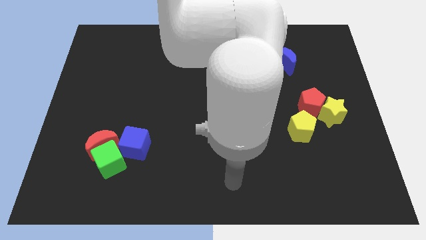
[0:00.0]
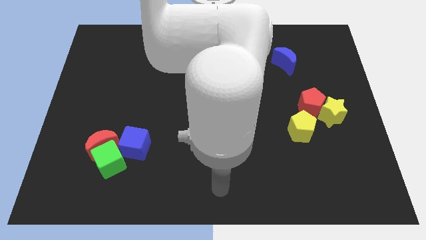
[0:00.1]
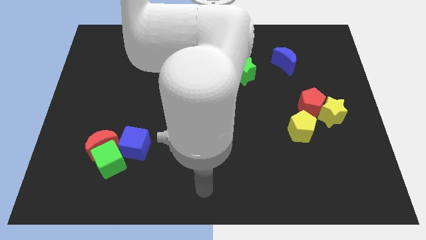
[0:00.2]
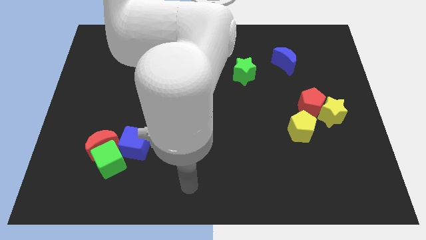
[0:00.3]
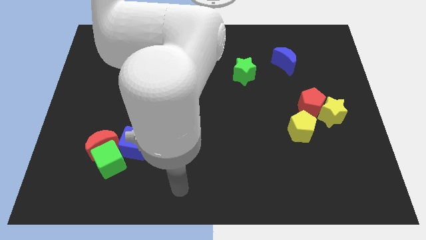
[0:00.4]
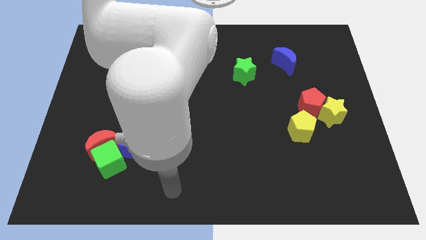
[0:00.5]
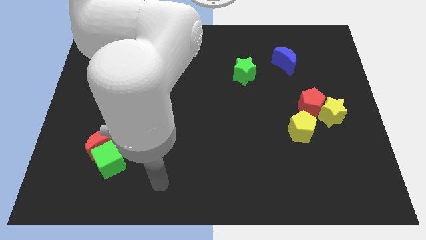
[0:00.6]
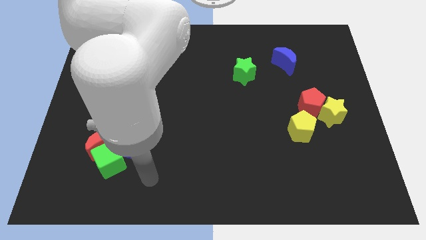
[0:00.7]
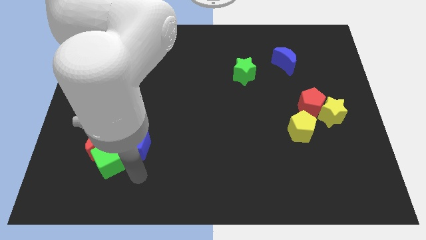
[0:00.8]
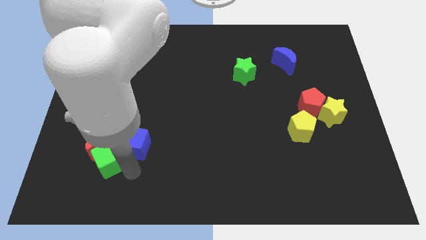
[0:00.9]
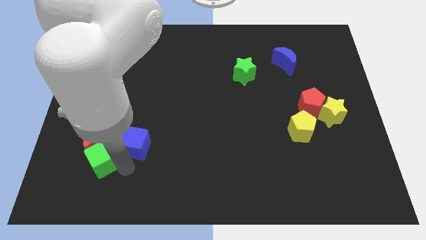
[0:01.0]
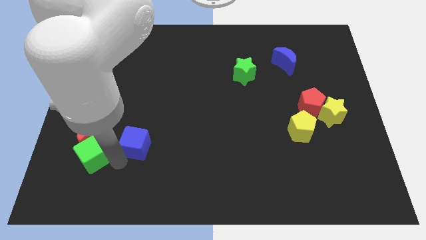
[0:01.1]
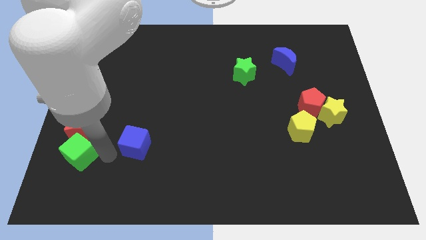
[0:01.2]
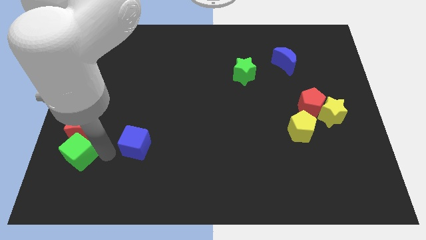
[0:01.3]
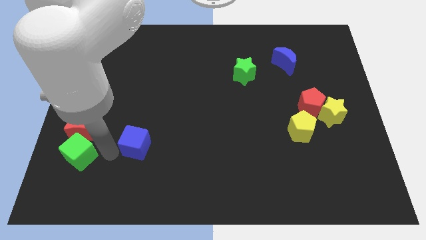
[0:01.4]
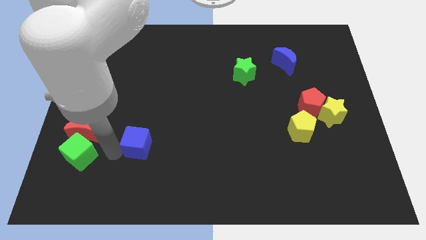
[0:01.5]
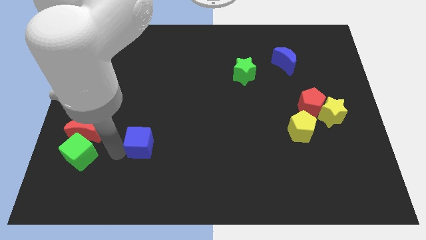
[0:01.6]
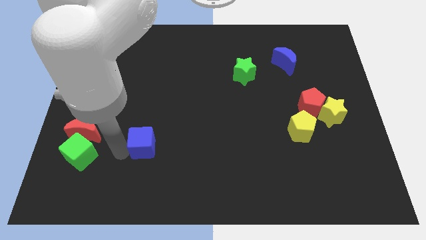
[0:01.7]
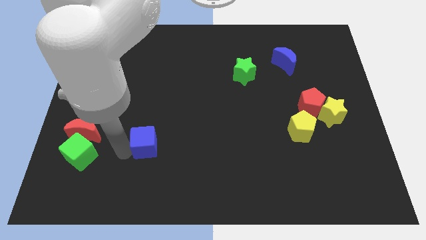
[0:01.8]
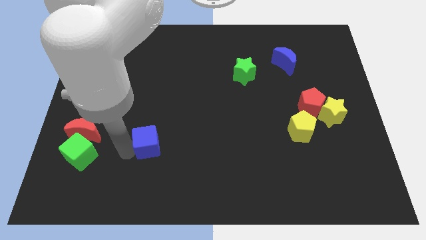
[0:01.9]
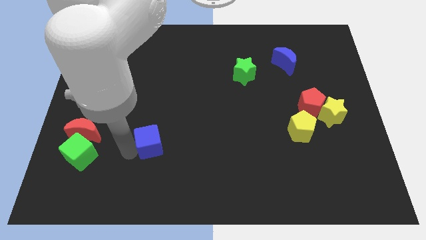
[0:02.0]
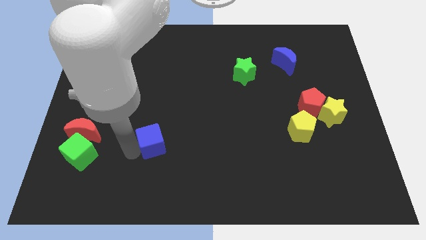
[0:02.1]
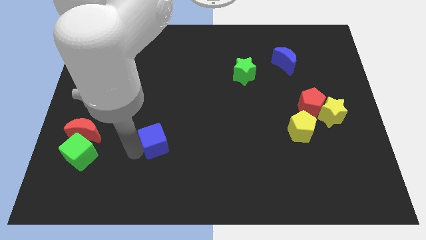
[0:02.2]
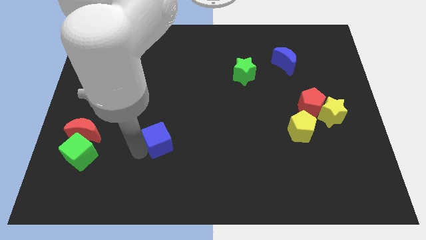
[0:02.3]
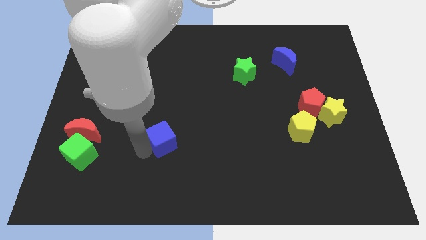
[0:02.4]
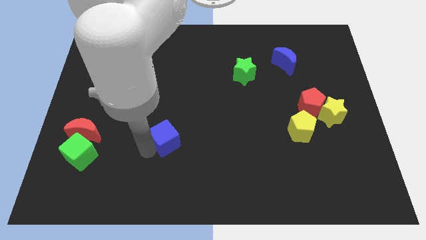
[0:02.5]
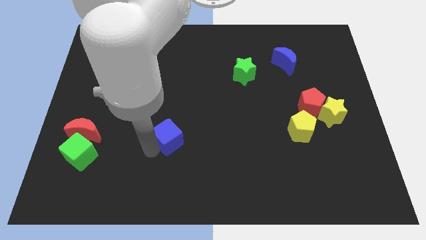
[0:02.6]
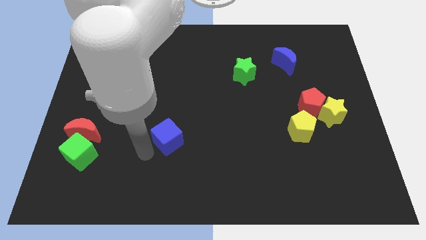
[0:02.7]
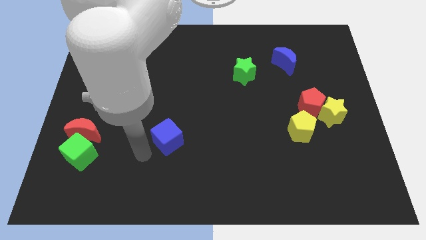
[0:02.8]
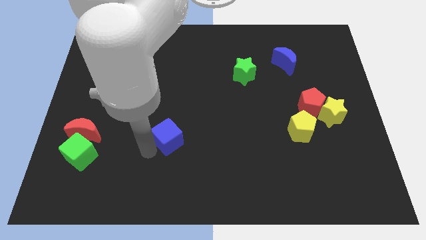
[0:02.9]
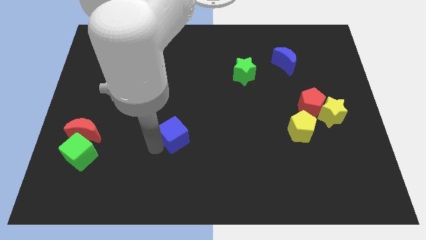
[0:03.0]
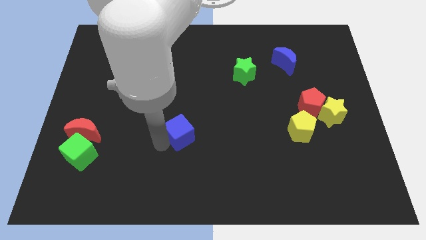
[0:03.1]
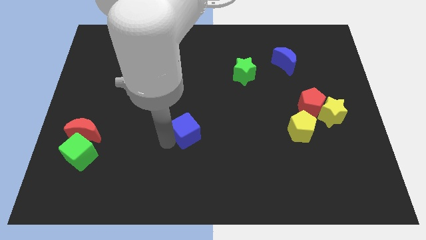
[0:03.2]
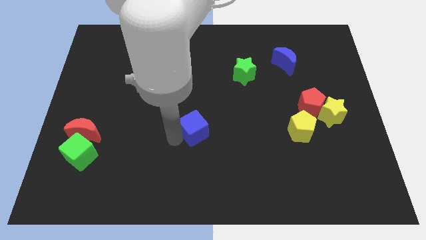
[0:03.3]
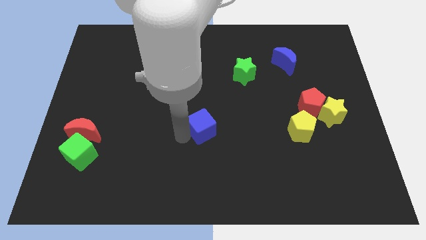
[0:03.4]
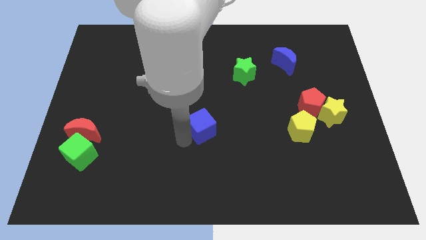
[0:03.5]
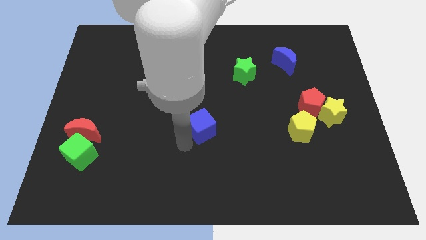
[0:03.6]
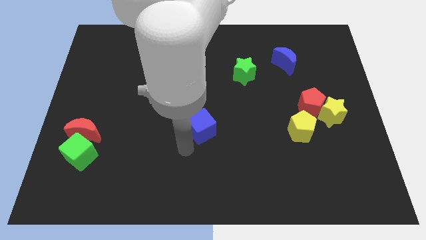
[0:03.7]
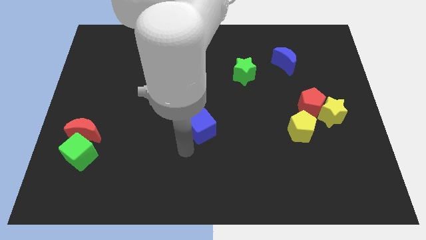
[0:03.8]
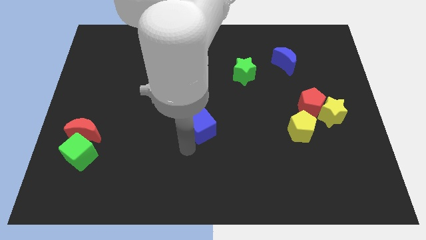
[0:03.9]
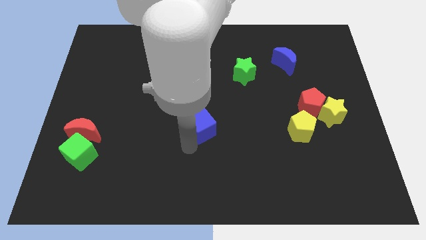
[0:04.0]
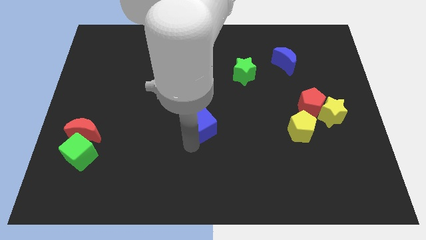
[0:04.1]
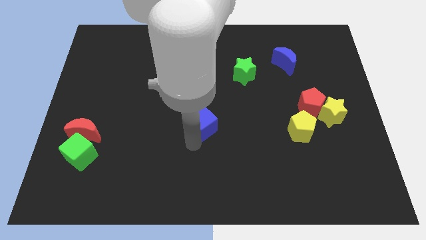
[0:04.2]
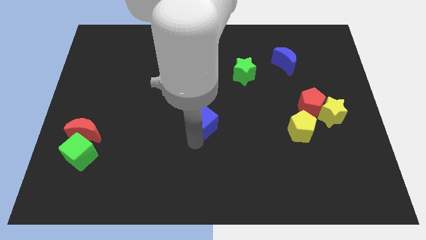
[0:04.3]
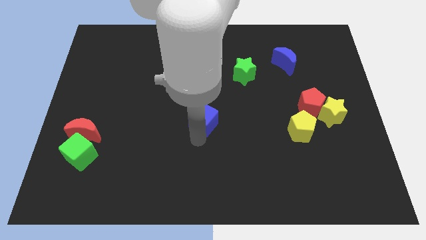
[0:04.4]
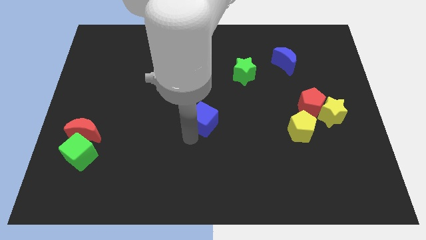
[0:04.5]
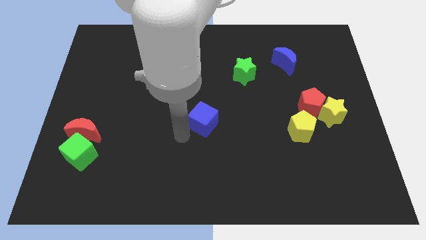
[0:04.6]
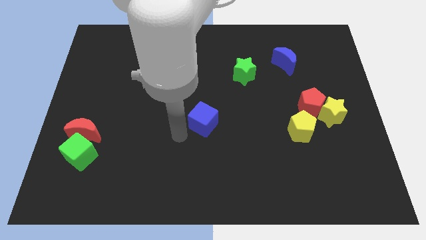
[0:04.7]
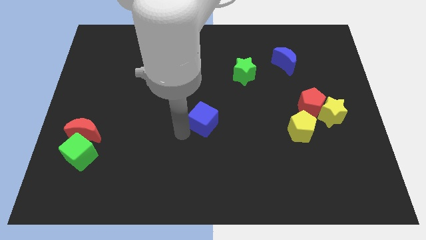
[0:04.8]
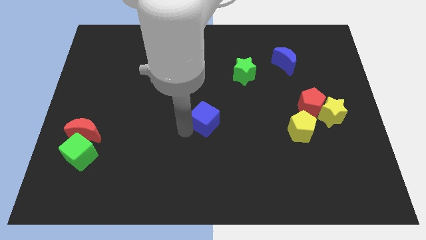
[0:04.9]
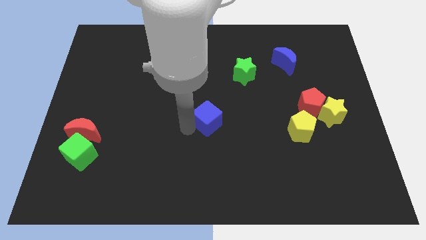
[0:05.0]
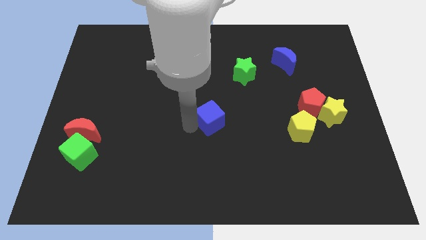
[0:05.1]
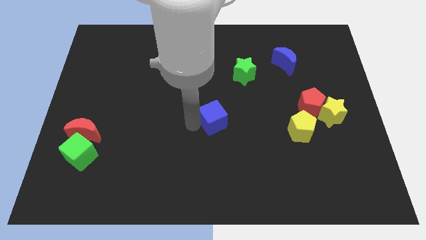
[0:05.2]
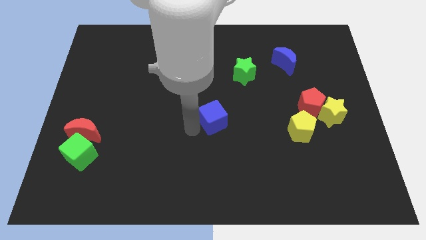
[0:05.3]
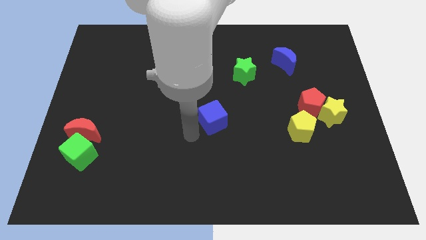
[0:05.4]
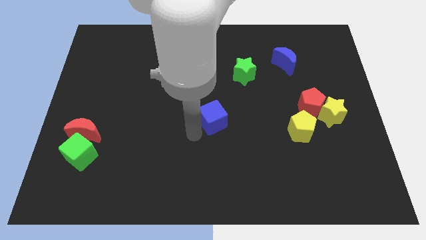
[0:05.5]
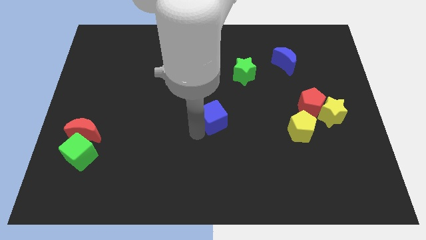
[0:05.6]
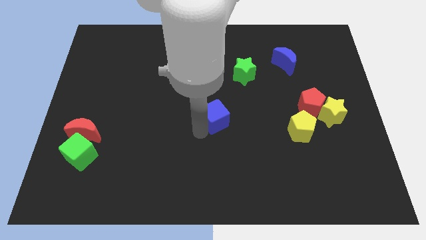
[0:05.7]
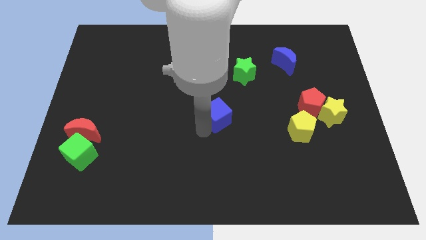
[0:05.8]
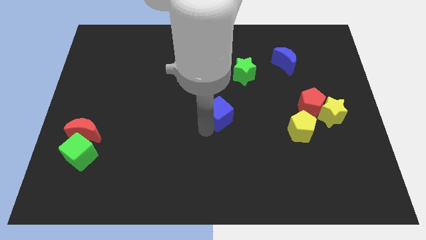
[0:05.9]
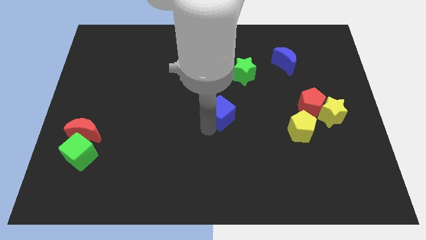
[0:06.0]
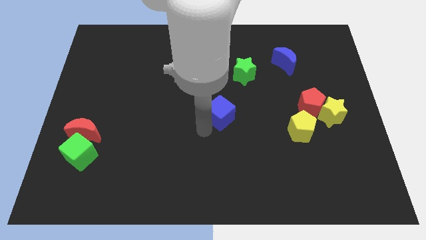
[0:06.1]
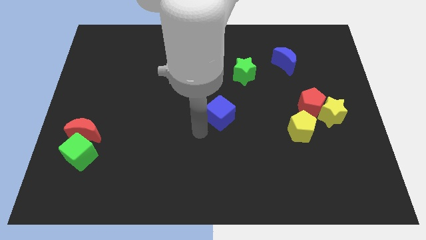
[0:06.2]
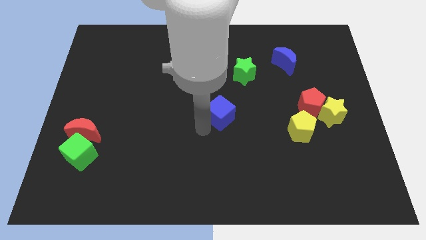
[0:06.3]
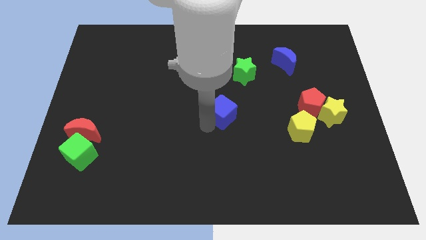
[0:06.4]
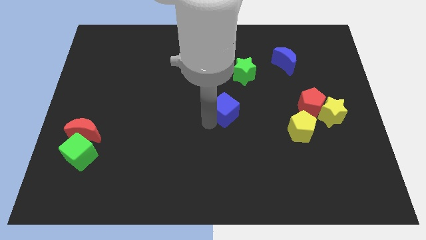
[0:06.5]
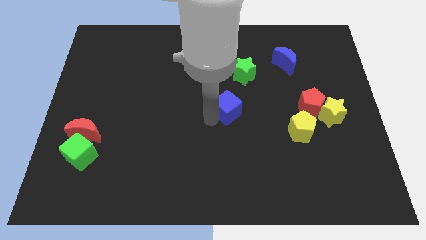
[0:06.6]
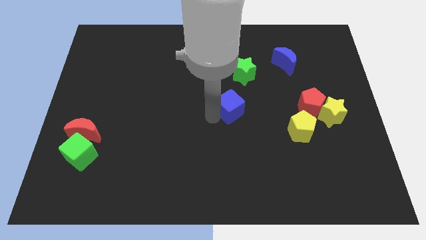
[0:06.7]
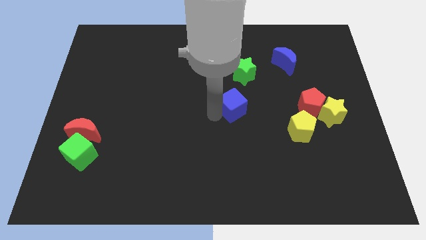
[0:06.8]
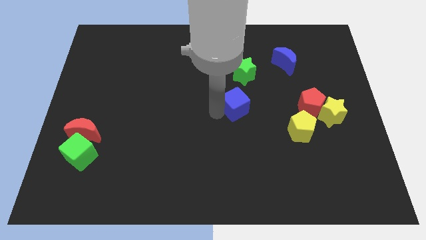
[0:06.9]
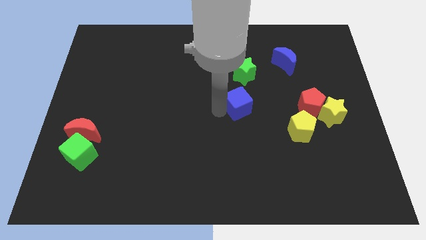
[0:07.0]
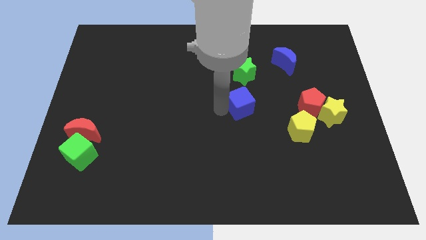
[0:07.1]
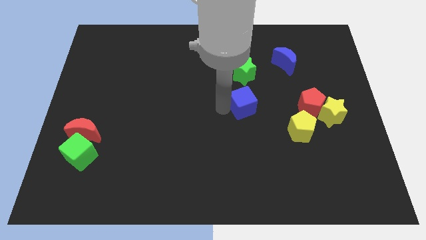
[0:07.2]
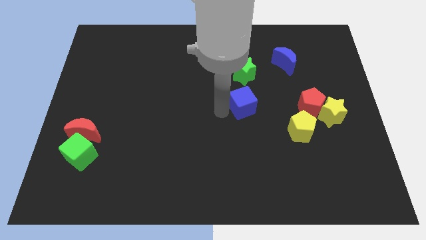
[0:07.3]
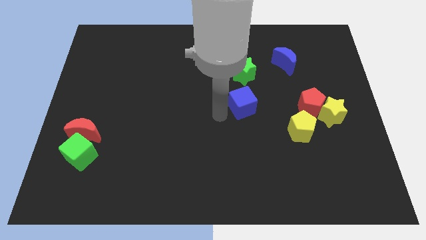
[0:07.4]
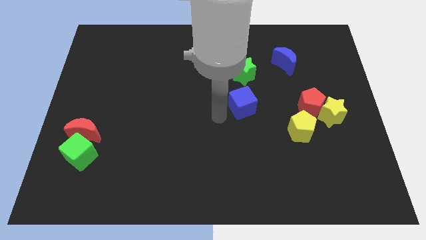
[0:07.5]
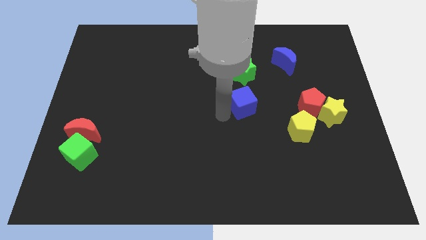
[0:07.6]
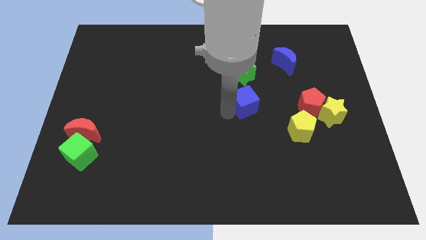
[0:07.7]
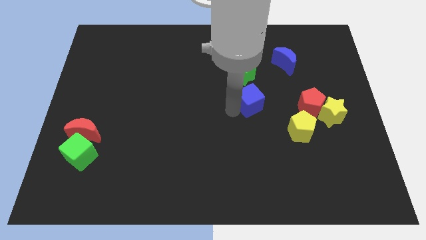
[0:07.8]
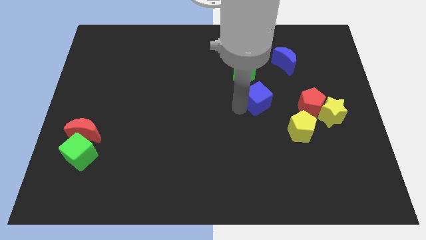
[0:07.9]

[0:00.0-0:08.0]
push the blue cube to the bottom right of the green star
